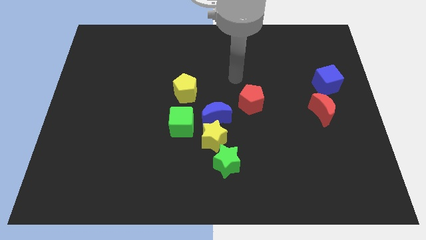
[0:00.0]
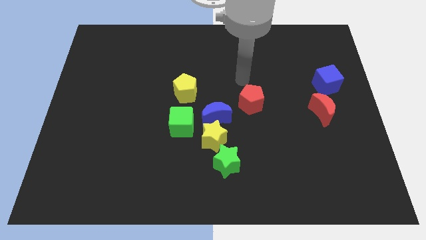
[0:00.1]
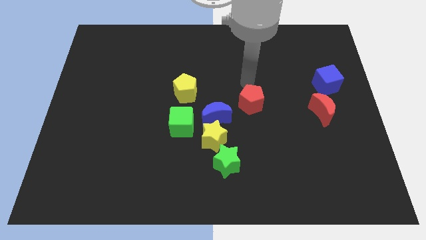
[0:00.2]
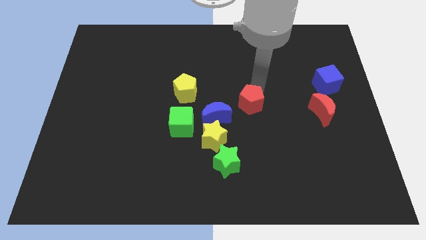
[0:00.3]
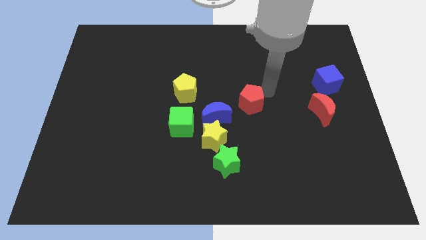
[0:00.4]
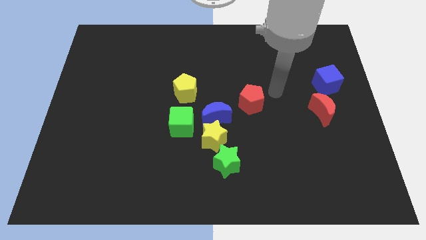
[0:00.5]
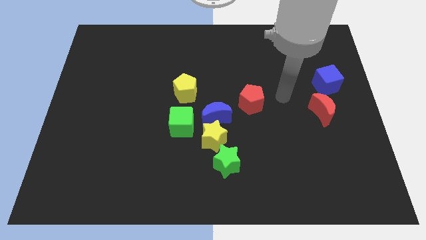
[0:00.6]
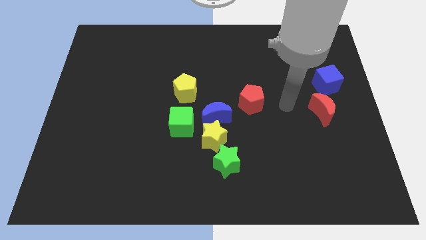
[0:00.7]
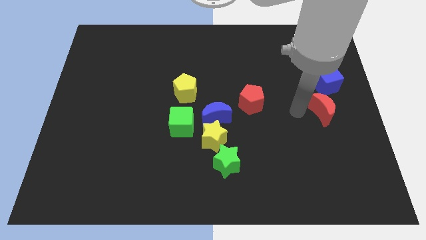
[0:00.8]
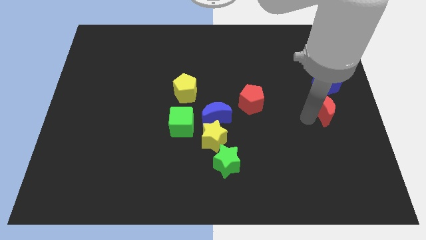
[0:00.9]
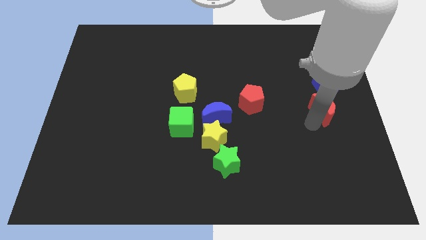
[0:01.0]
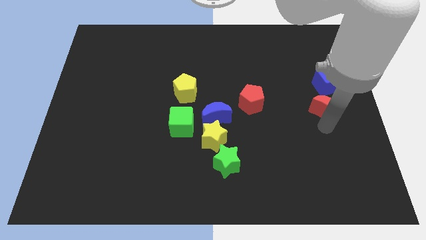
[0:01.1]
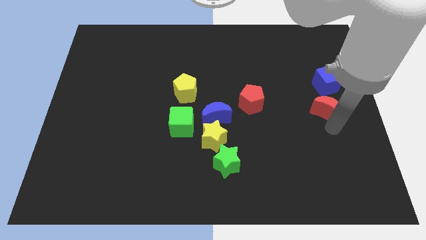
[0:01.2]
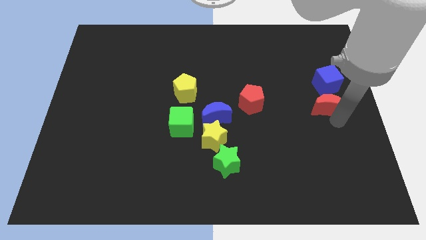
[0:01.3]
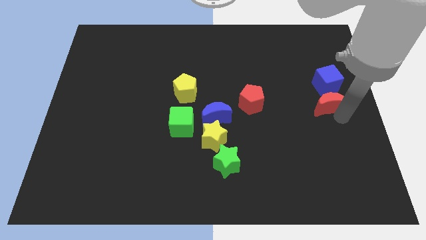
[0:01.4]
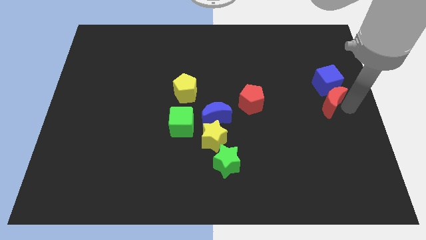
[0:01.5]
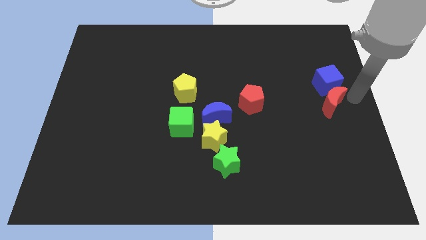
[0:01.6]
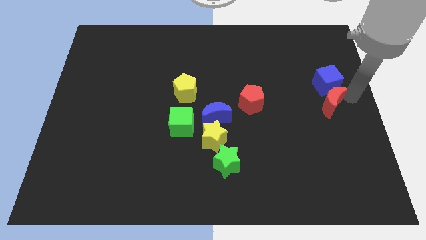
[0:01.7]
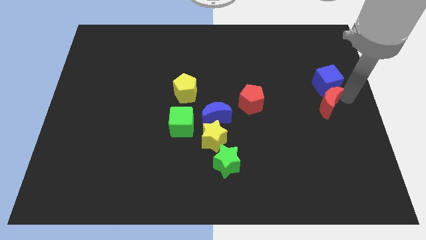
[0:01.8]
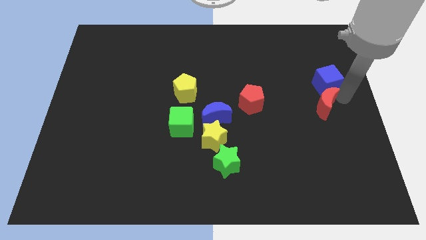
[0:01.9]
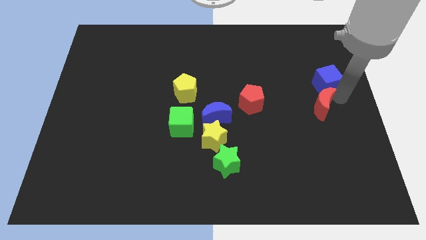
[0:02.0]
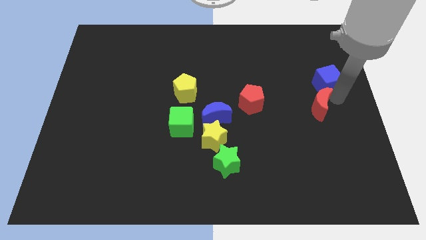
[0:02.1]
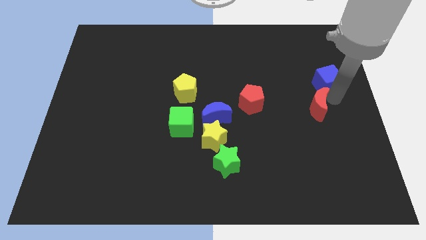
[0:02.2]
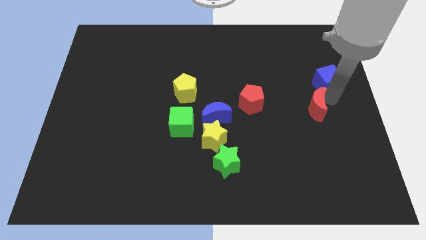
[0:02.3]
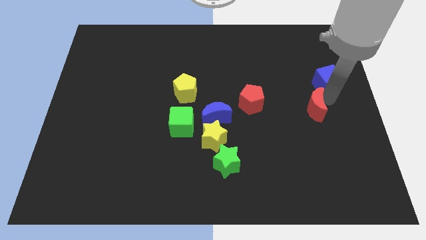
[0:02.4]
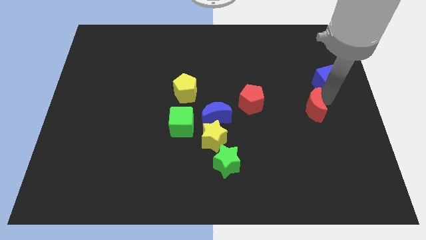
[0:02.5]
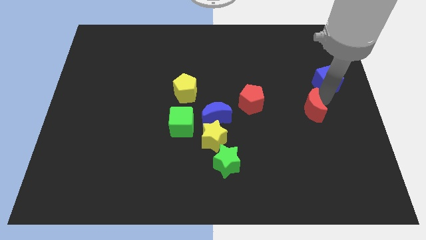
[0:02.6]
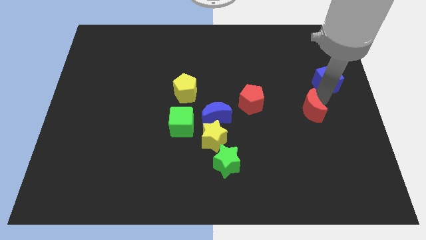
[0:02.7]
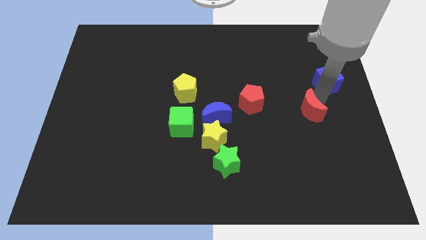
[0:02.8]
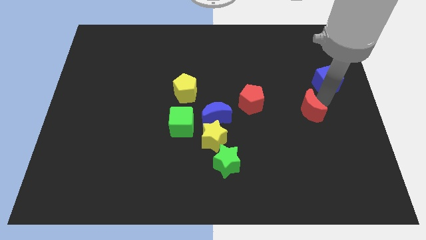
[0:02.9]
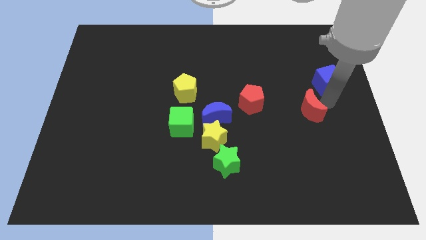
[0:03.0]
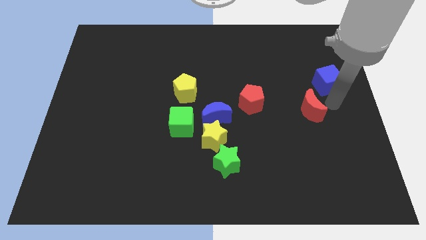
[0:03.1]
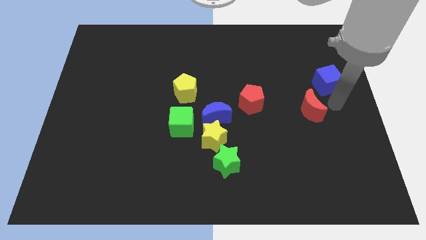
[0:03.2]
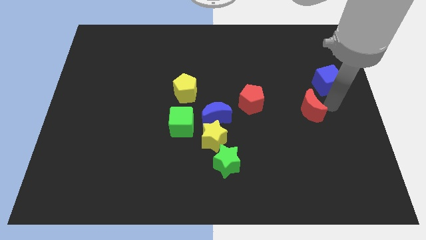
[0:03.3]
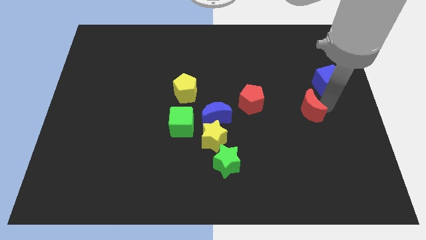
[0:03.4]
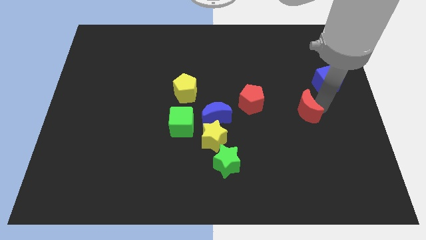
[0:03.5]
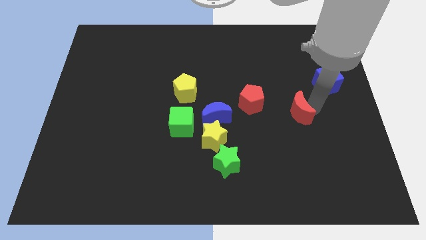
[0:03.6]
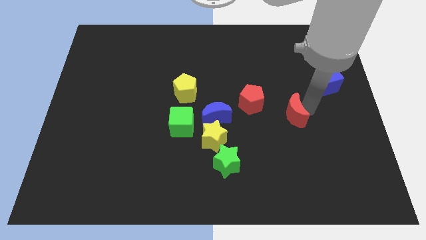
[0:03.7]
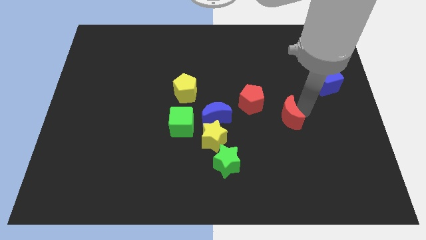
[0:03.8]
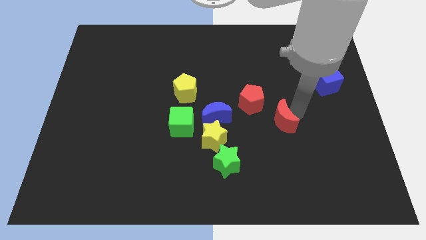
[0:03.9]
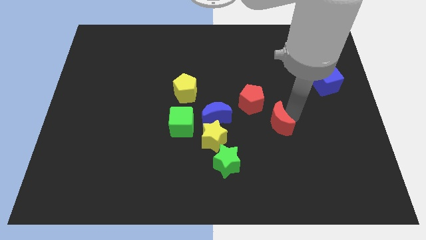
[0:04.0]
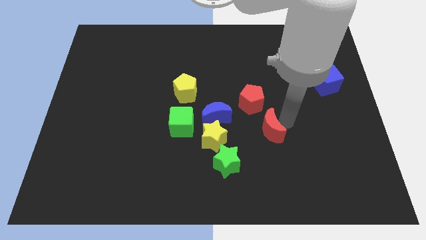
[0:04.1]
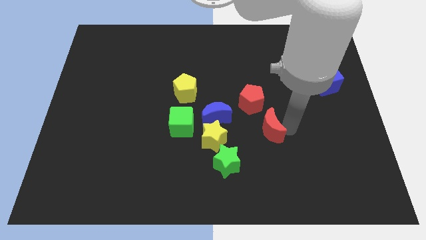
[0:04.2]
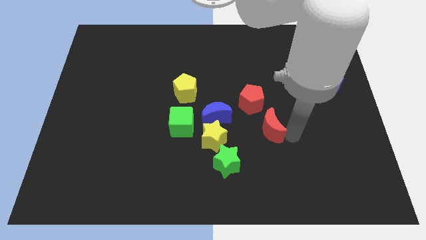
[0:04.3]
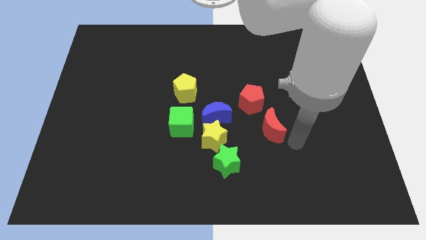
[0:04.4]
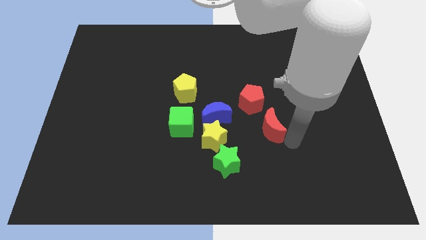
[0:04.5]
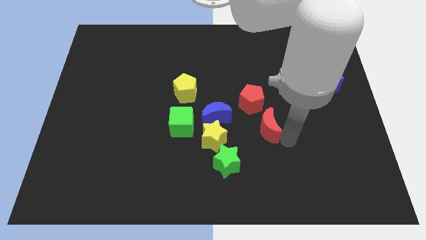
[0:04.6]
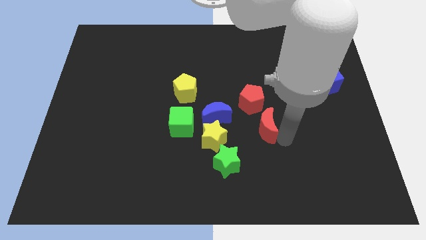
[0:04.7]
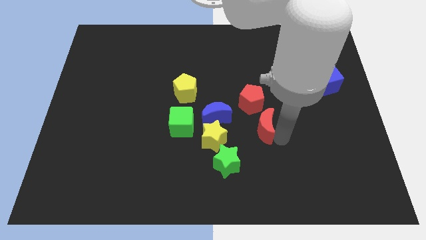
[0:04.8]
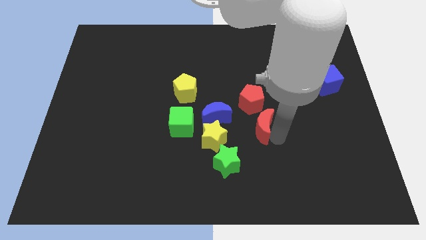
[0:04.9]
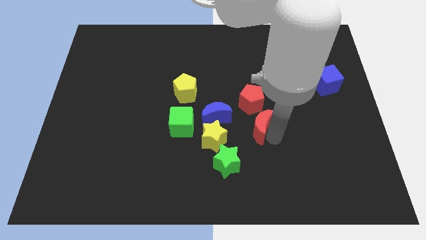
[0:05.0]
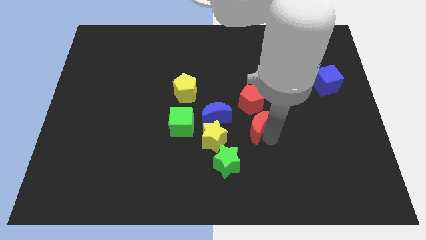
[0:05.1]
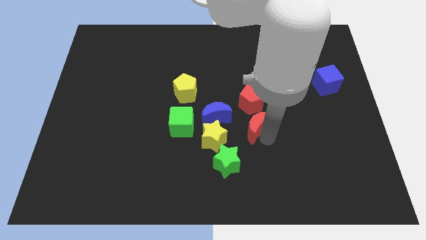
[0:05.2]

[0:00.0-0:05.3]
slide the red moon to the center
